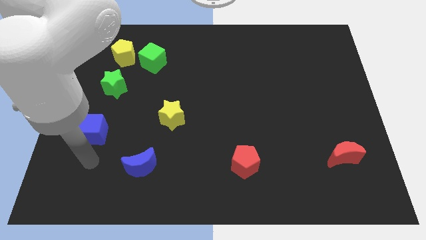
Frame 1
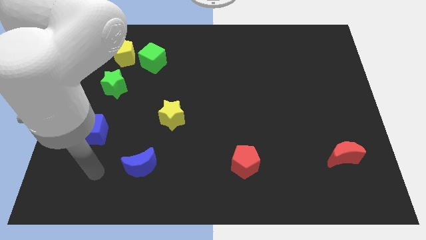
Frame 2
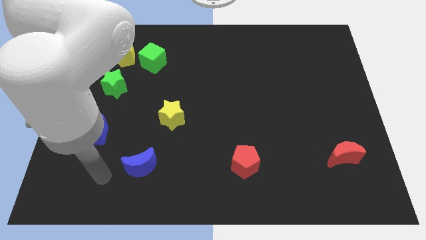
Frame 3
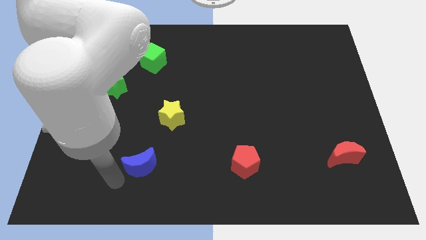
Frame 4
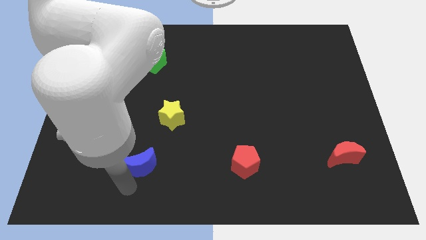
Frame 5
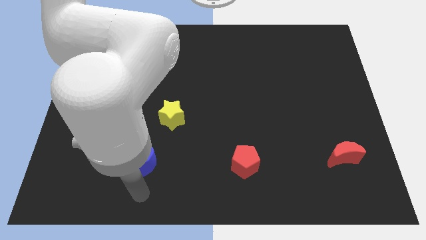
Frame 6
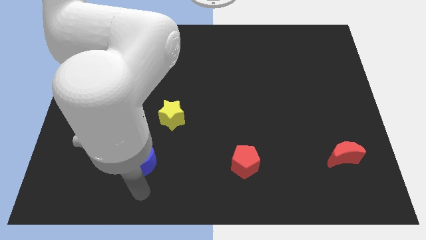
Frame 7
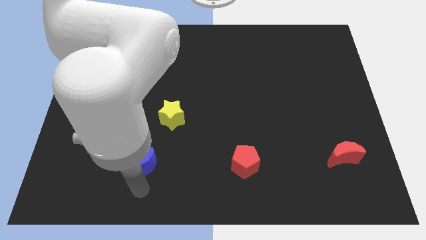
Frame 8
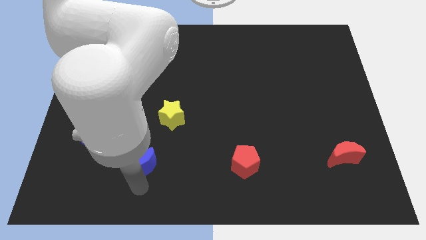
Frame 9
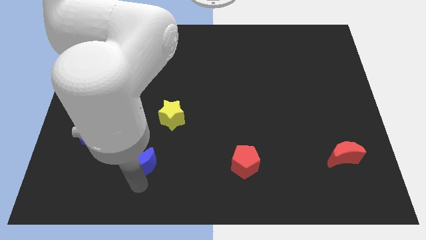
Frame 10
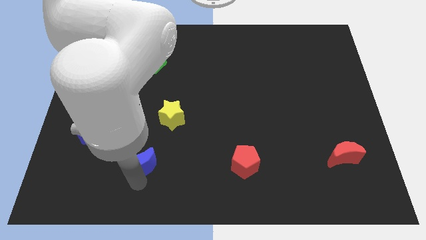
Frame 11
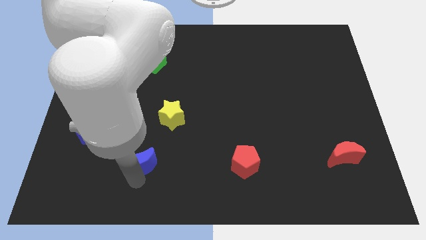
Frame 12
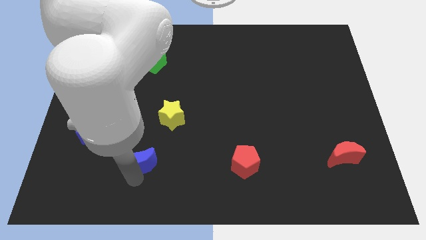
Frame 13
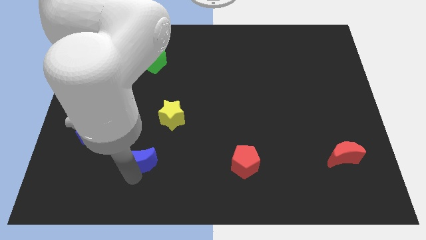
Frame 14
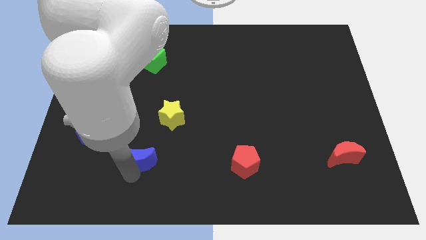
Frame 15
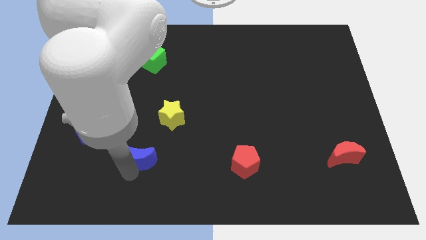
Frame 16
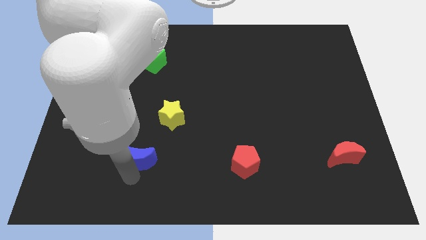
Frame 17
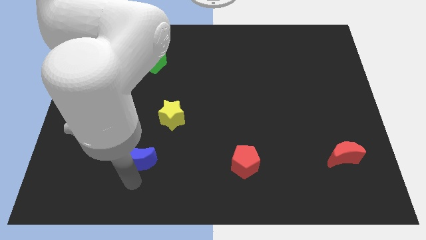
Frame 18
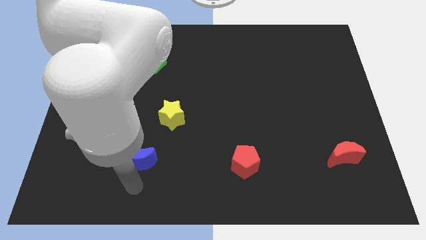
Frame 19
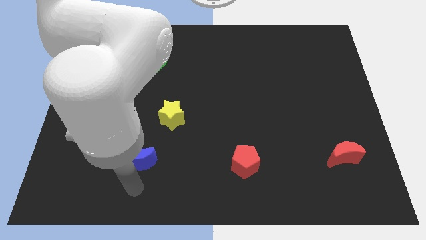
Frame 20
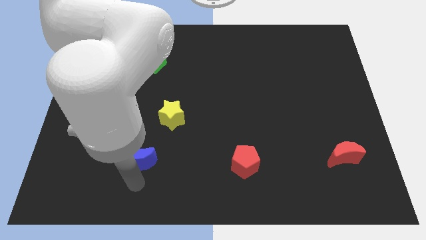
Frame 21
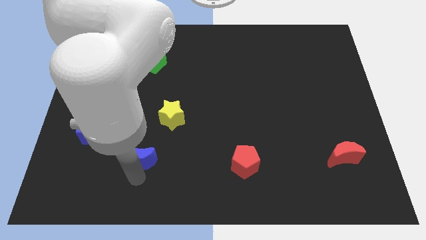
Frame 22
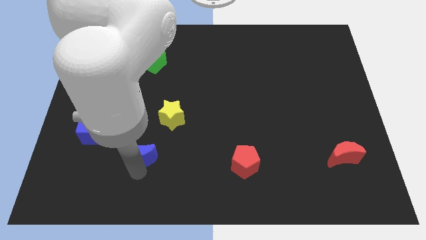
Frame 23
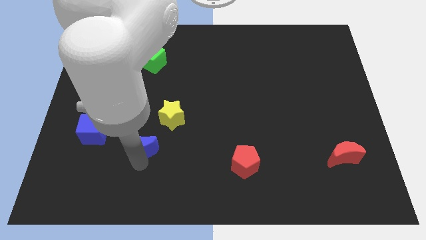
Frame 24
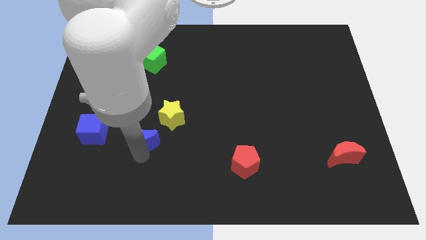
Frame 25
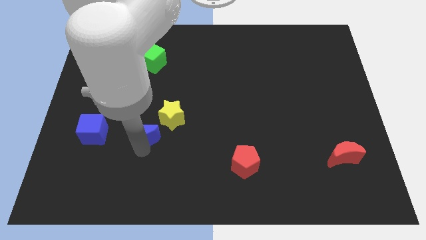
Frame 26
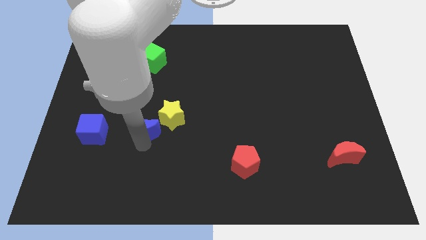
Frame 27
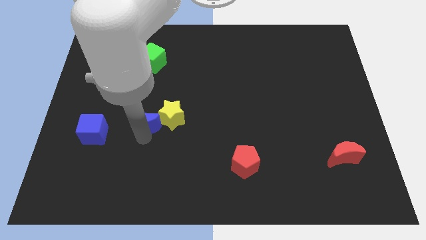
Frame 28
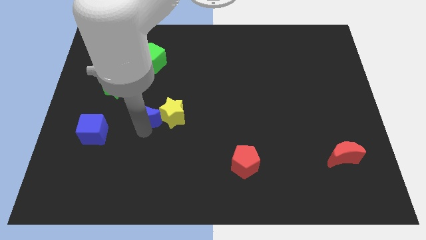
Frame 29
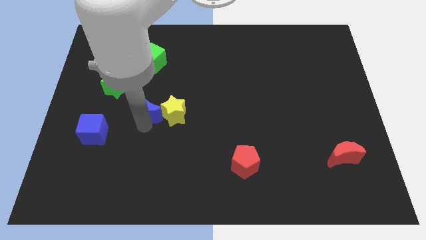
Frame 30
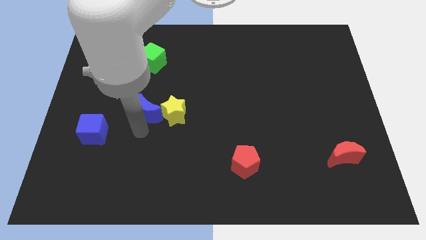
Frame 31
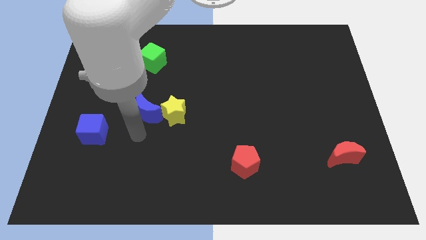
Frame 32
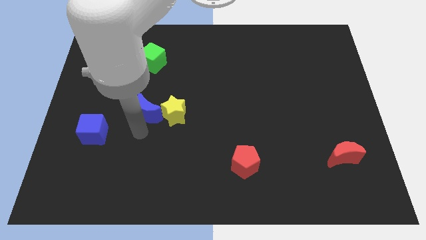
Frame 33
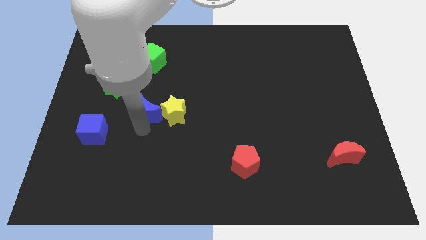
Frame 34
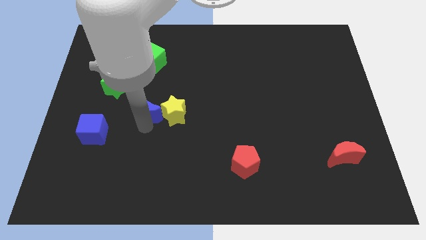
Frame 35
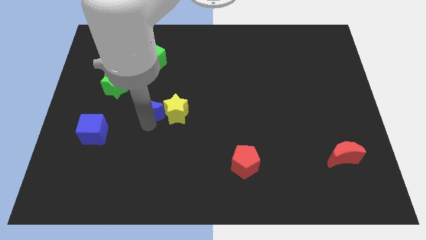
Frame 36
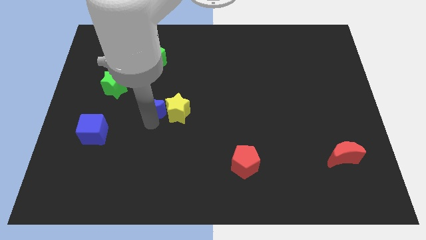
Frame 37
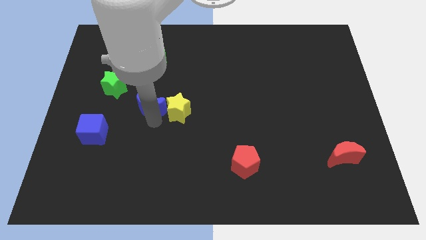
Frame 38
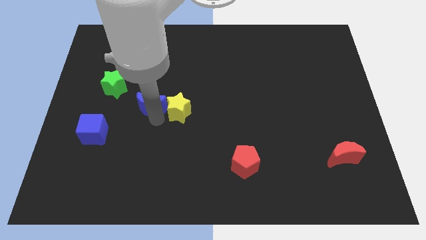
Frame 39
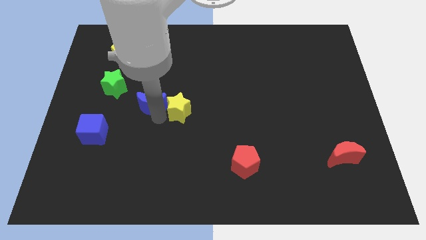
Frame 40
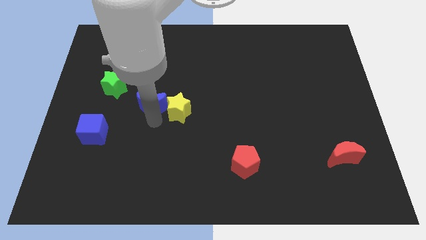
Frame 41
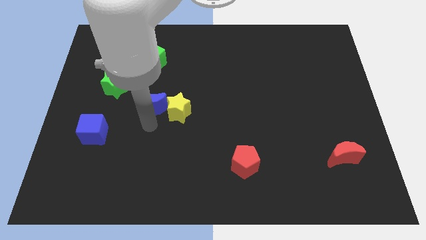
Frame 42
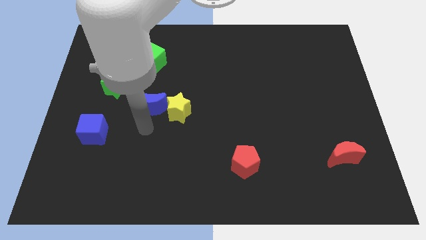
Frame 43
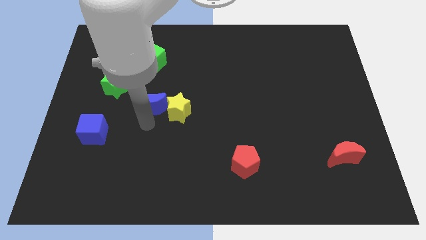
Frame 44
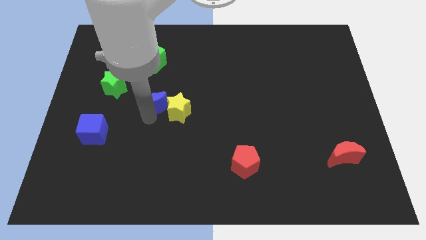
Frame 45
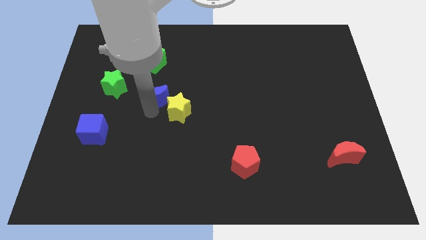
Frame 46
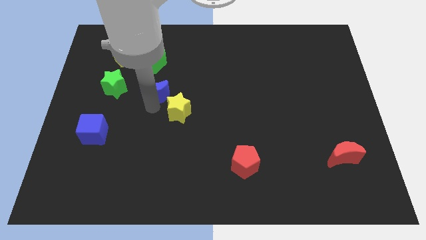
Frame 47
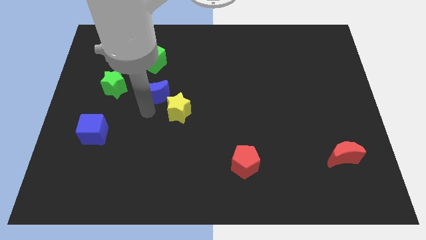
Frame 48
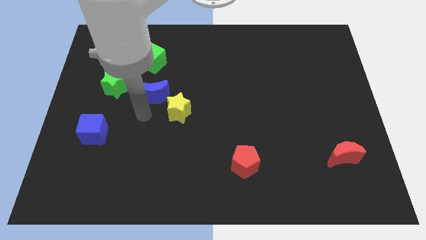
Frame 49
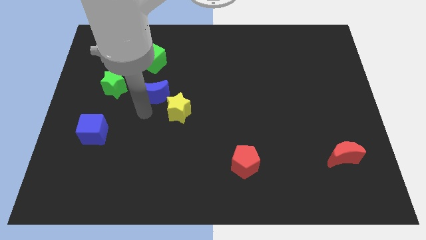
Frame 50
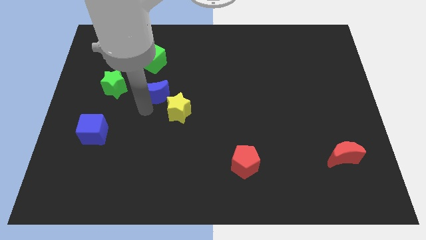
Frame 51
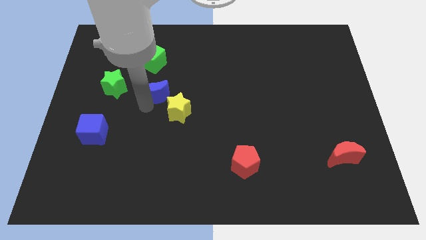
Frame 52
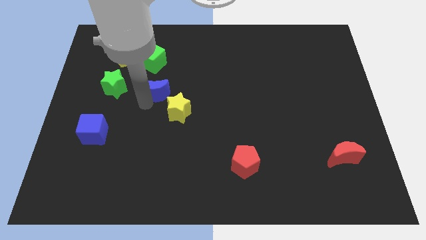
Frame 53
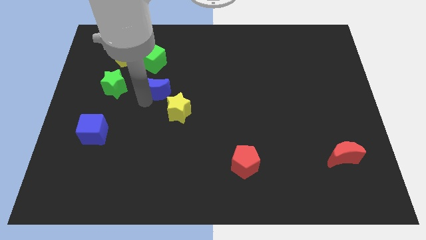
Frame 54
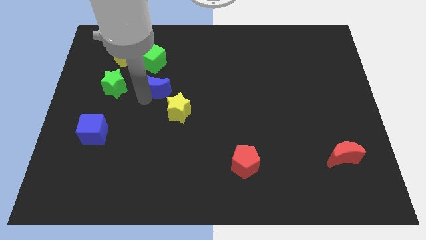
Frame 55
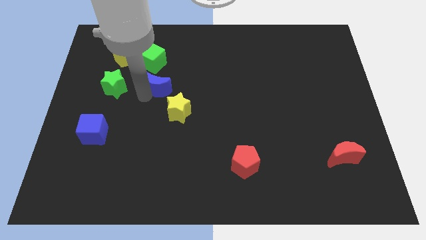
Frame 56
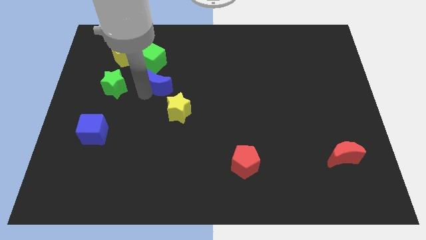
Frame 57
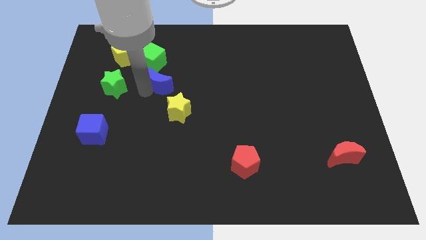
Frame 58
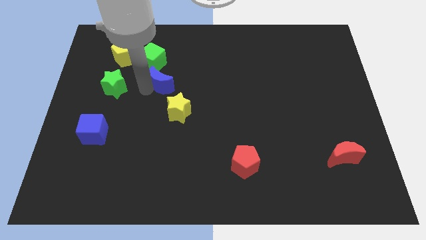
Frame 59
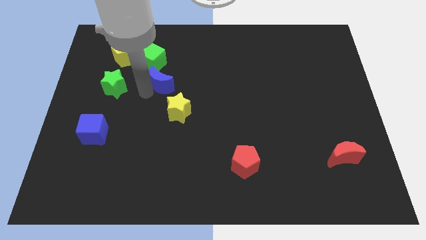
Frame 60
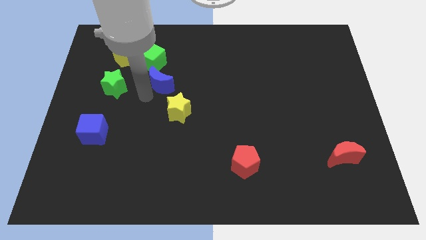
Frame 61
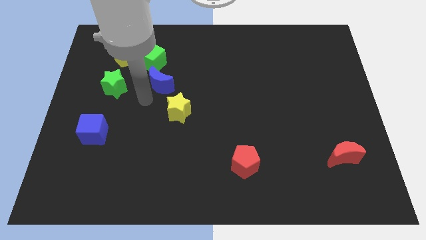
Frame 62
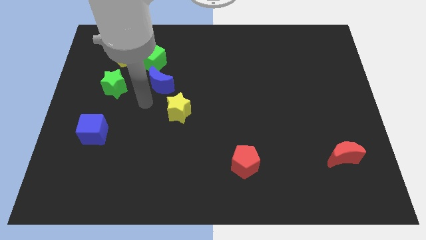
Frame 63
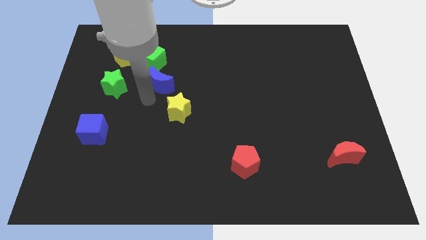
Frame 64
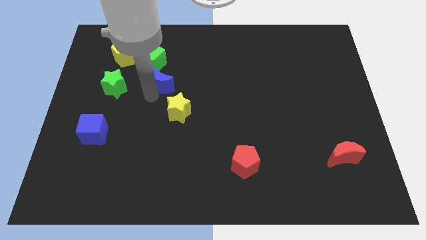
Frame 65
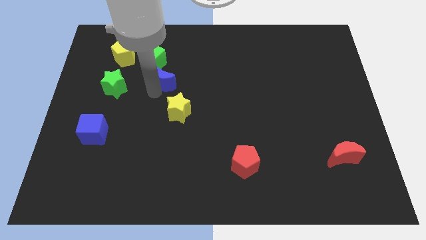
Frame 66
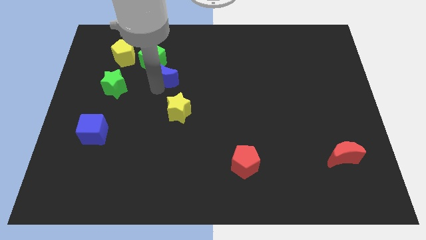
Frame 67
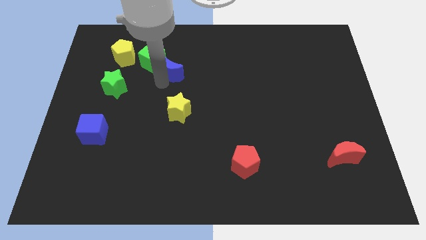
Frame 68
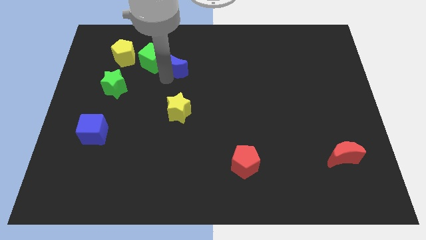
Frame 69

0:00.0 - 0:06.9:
put the blue moon to the right side of the yellow pentagon
